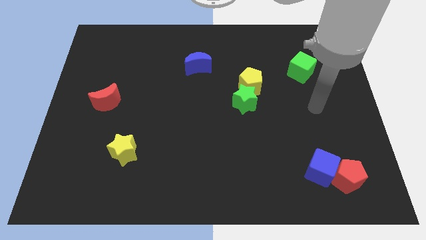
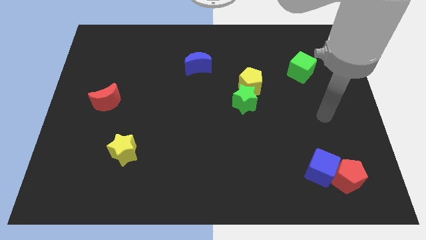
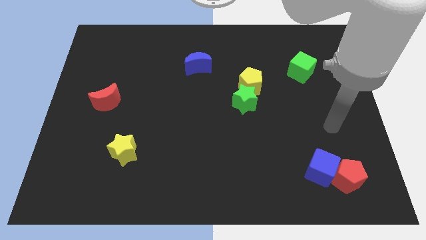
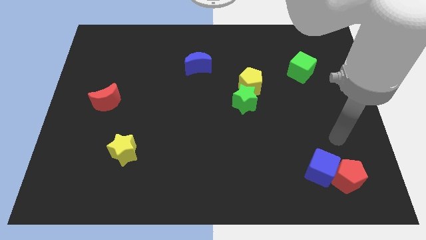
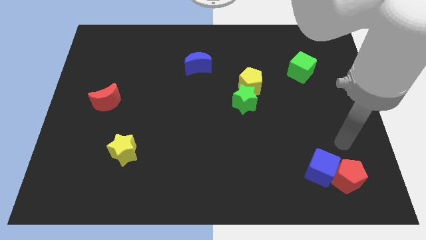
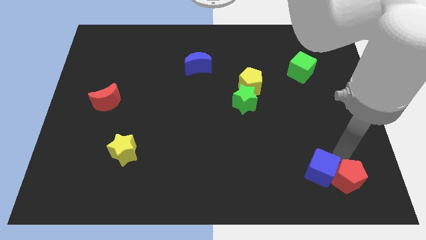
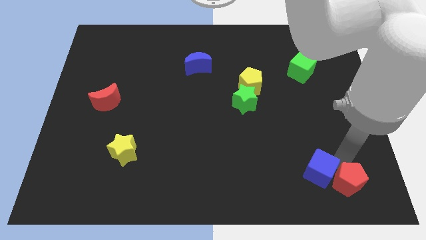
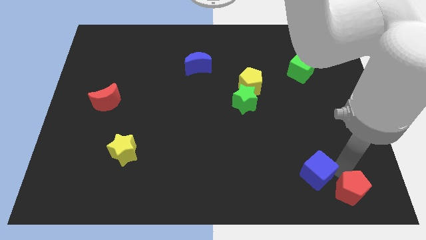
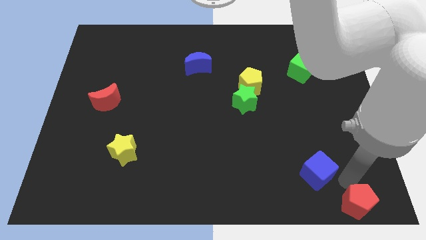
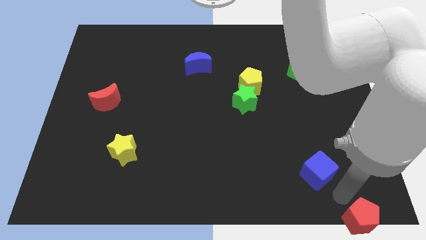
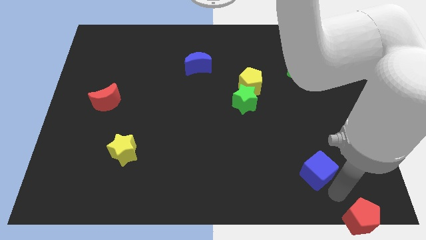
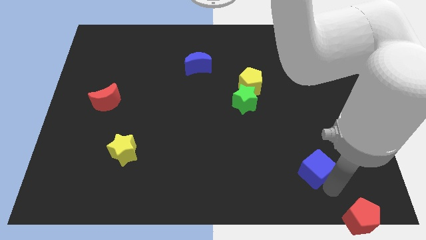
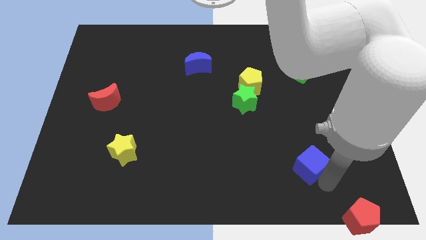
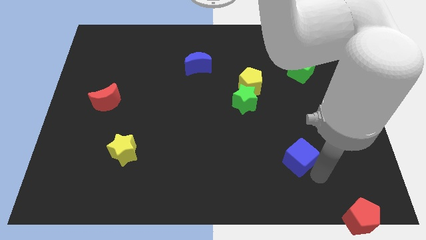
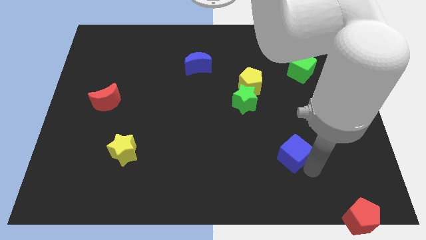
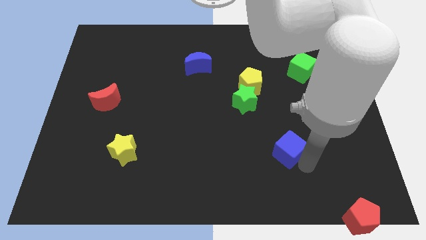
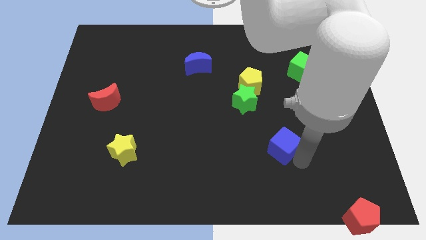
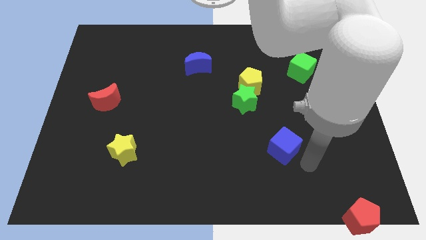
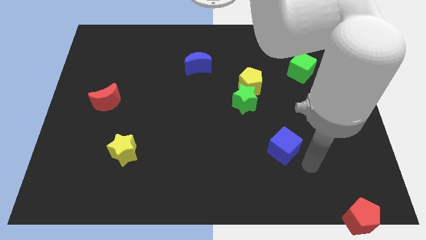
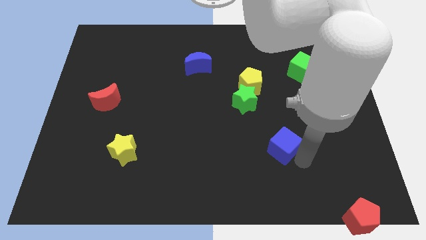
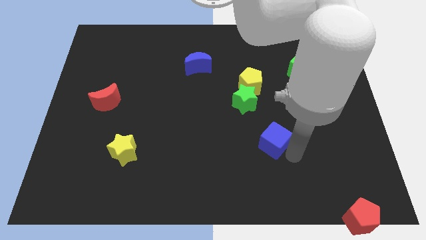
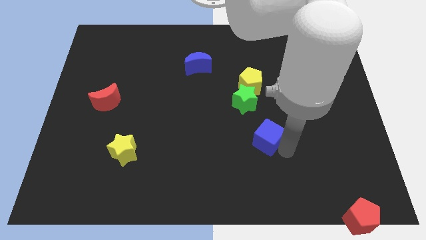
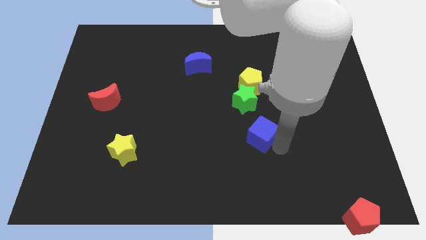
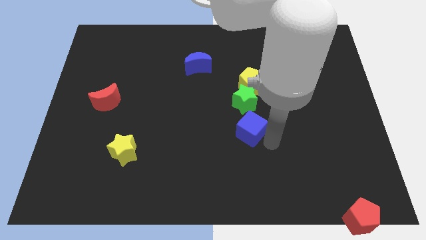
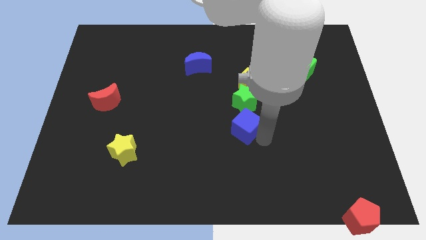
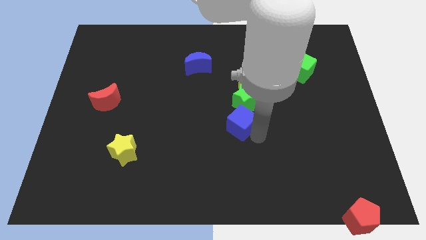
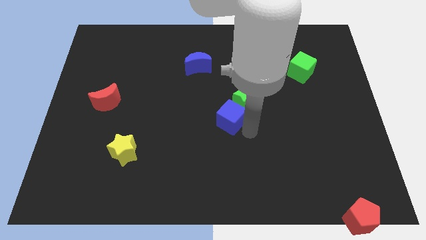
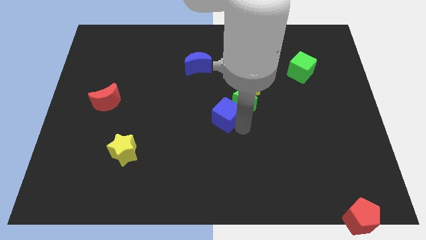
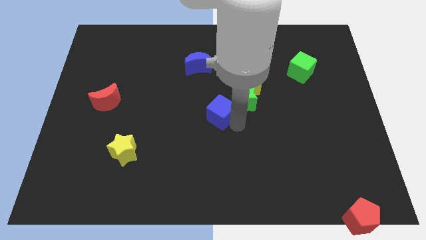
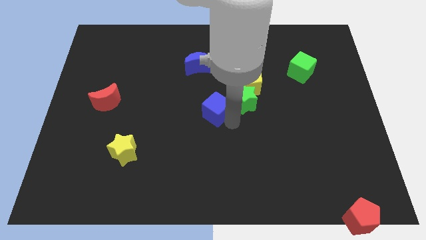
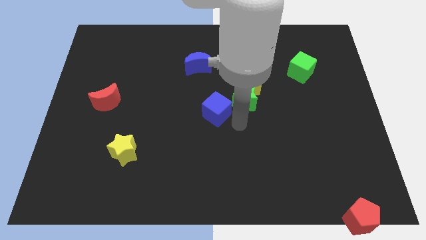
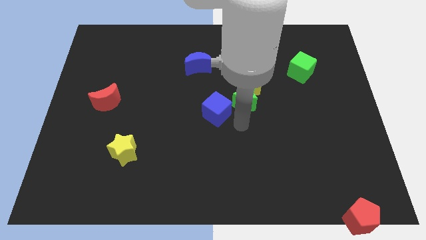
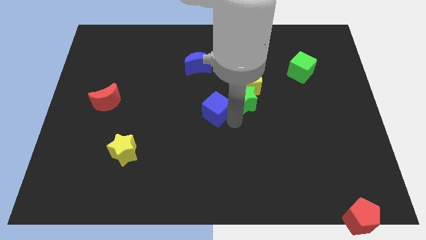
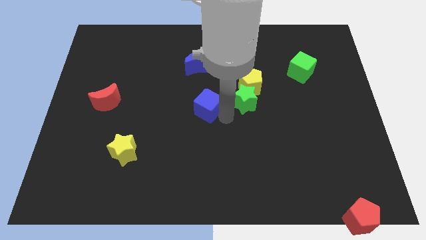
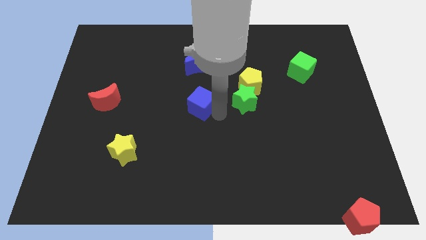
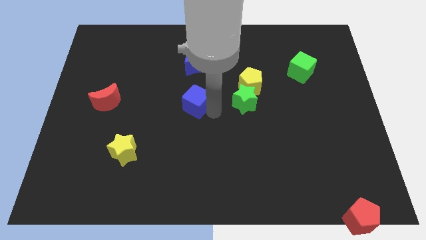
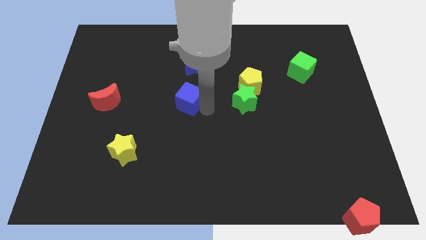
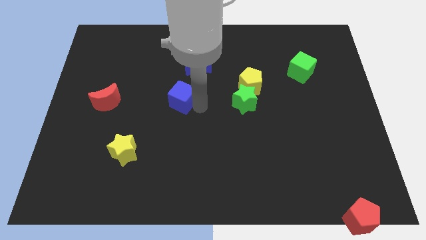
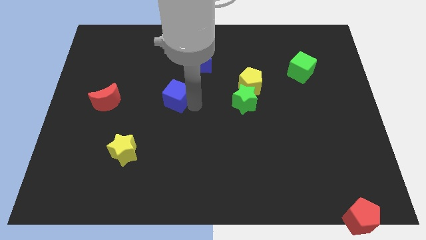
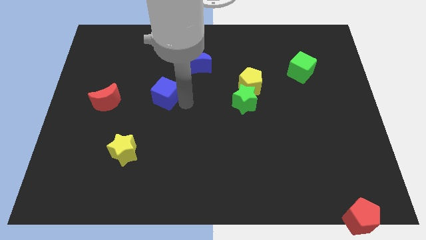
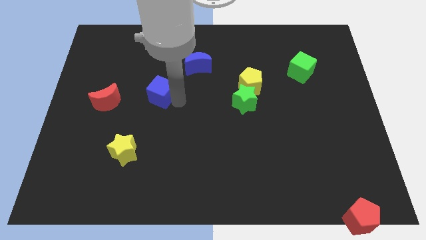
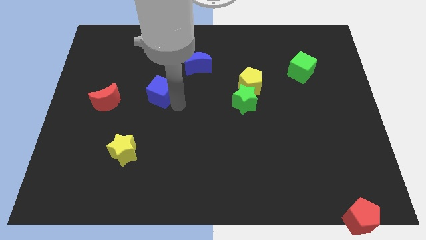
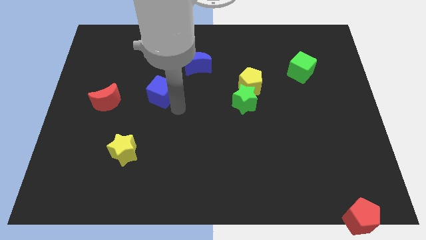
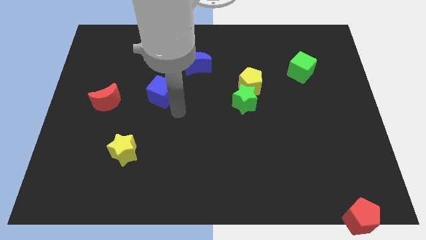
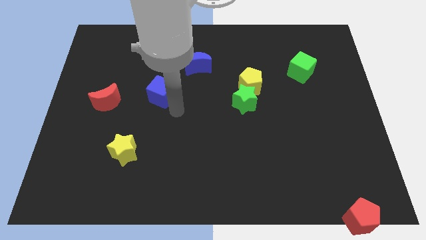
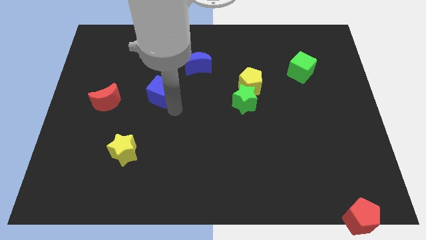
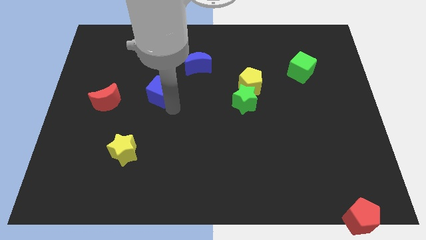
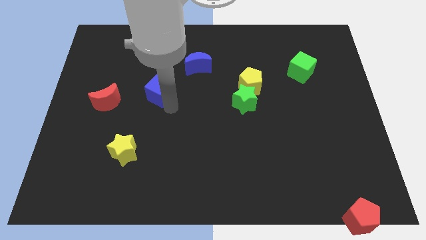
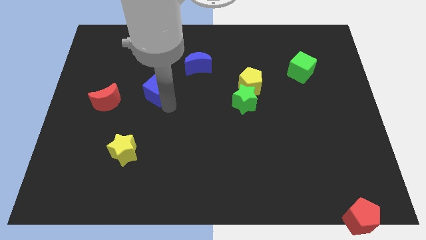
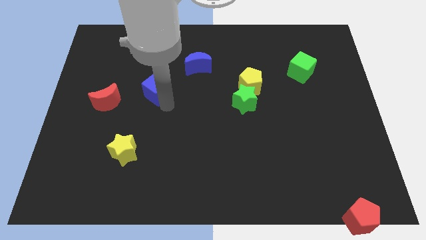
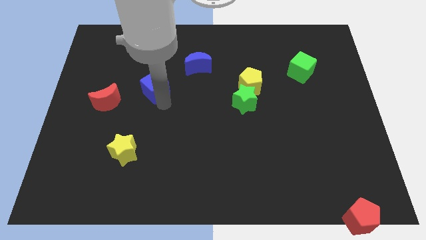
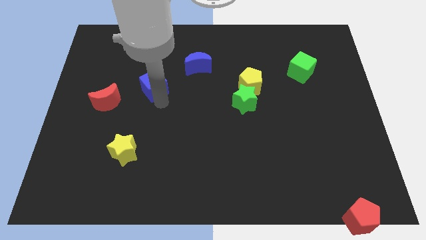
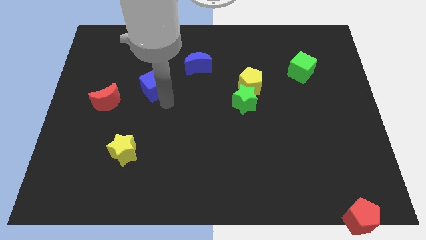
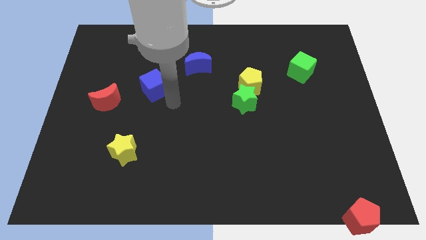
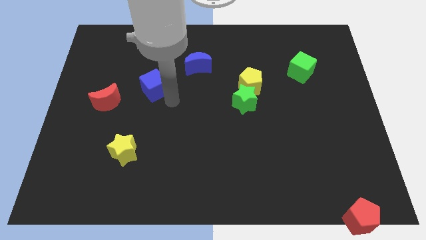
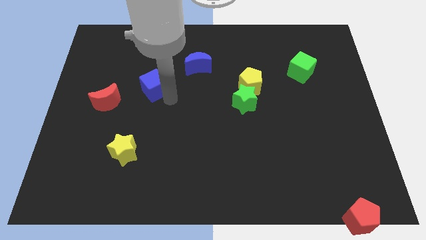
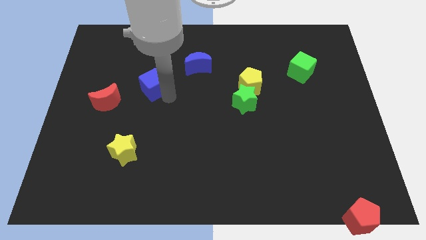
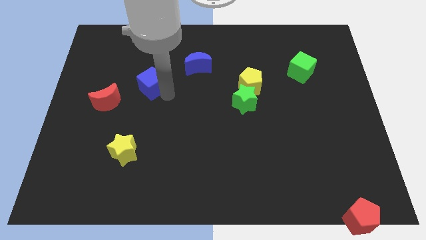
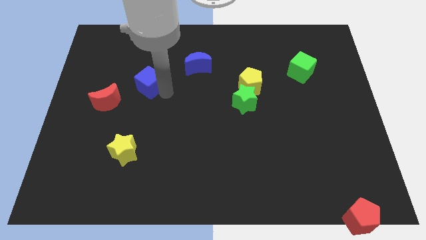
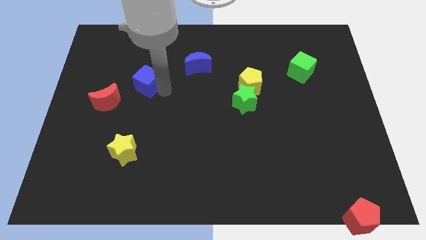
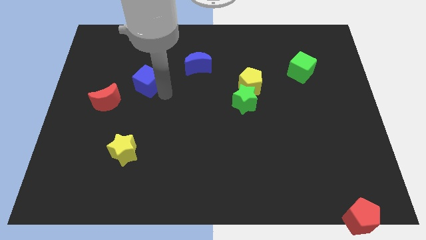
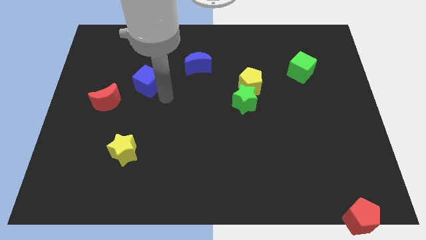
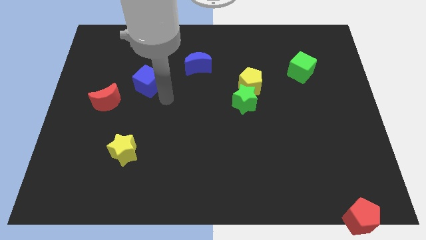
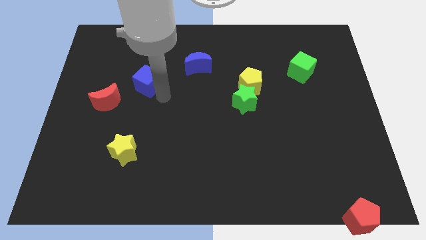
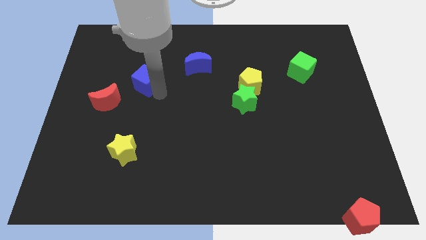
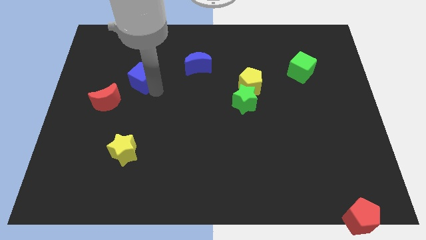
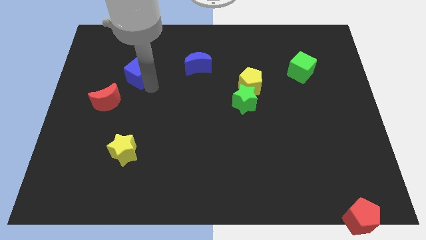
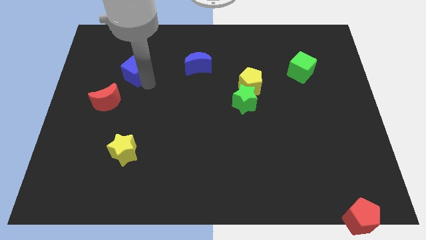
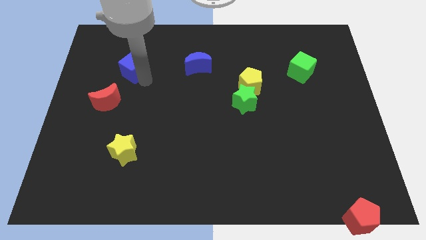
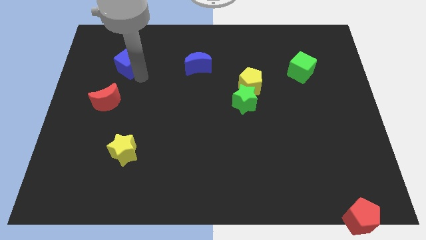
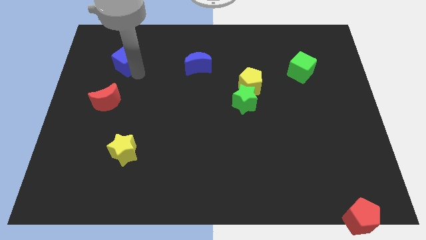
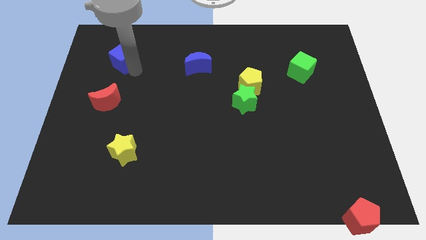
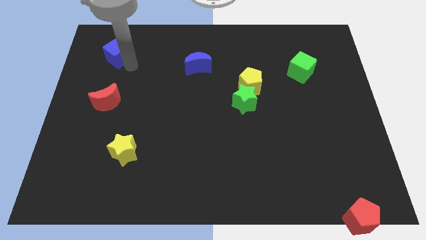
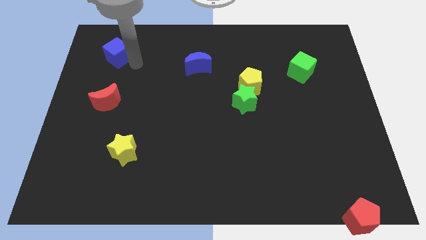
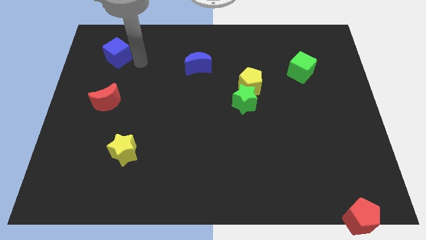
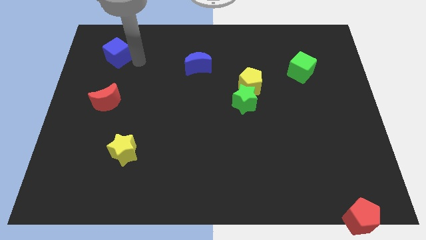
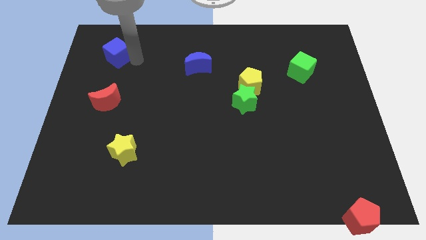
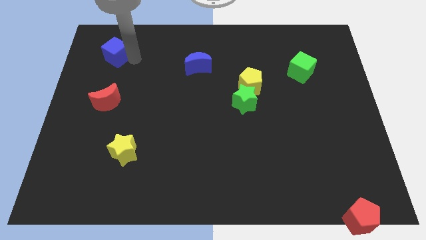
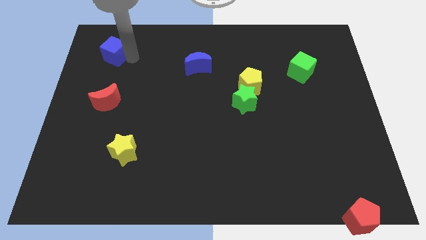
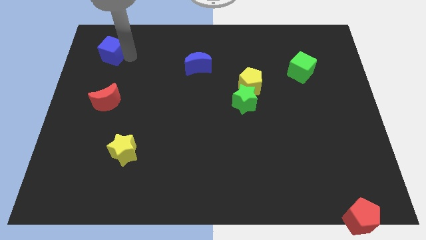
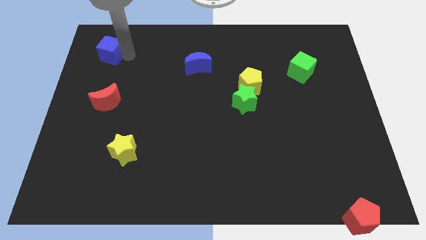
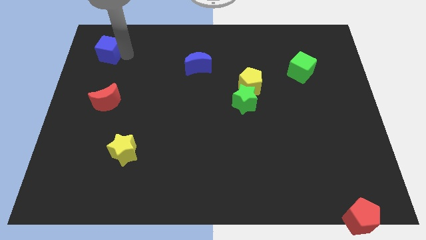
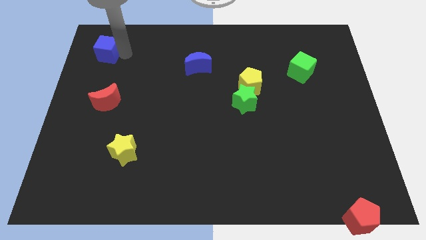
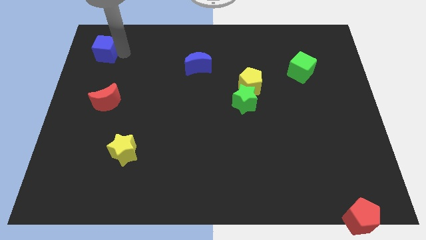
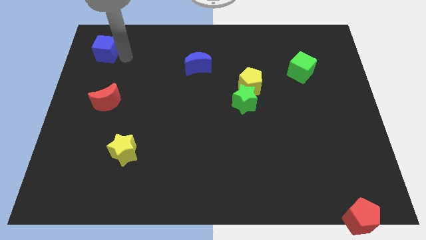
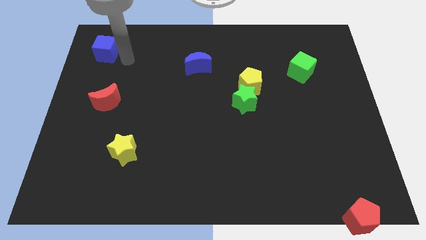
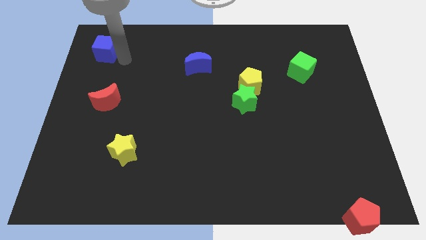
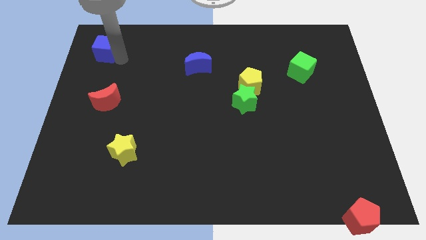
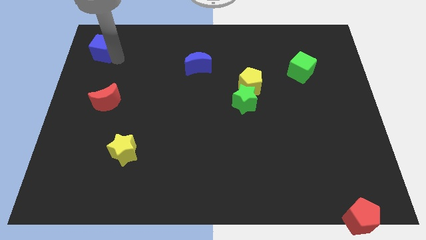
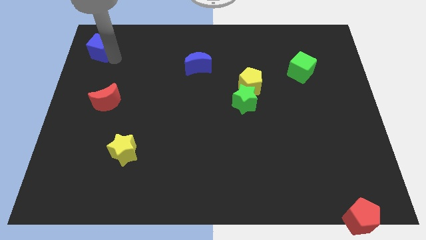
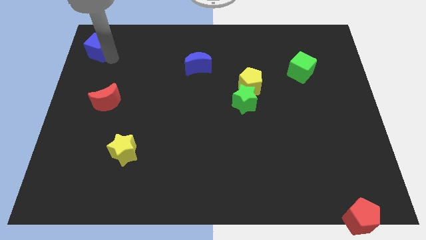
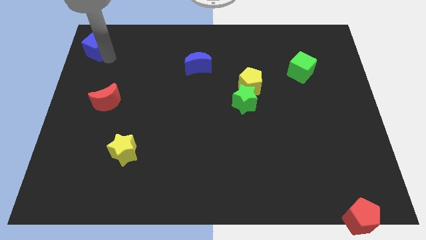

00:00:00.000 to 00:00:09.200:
slide the blue cube to the upper left corner
